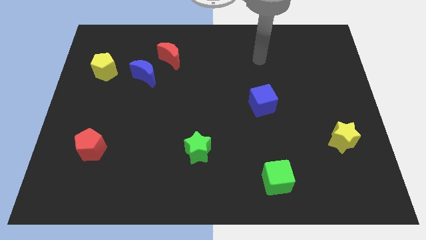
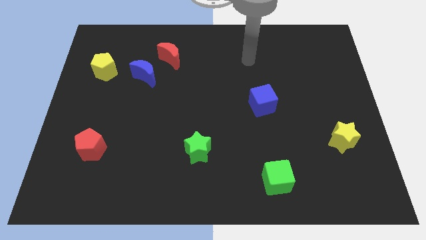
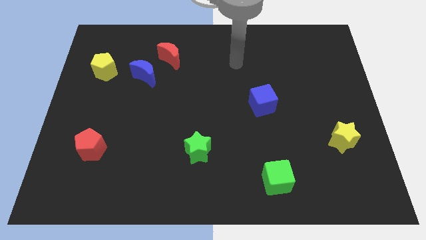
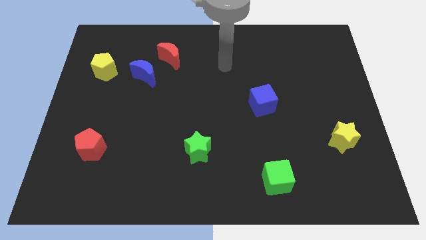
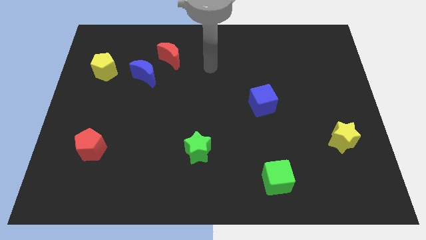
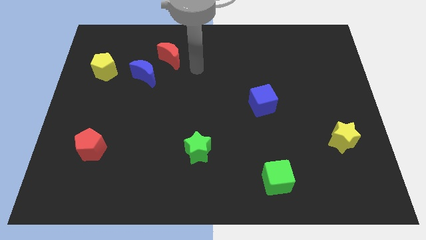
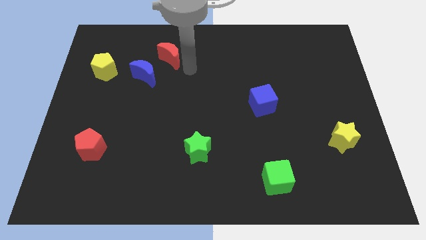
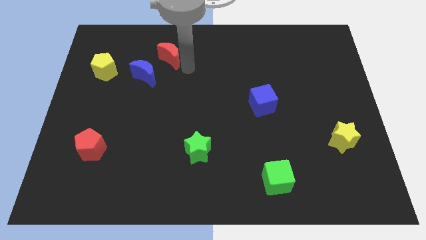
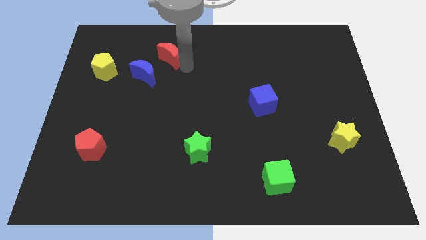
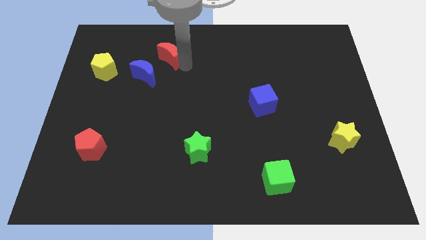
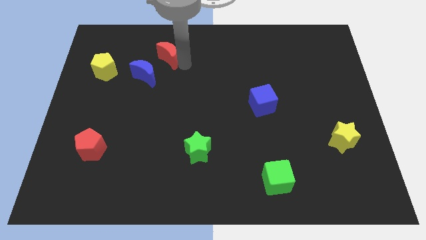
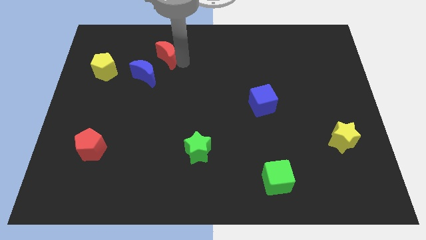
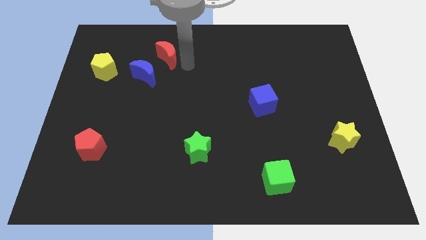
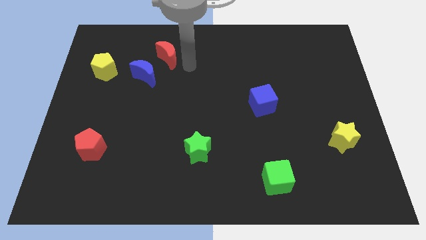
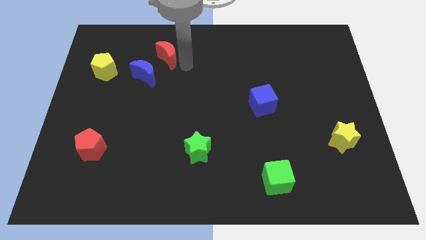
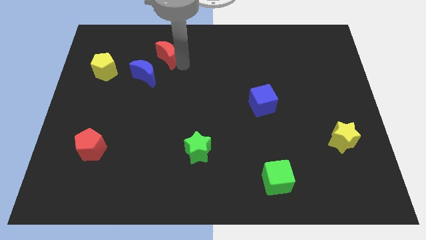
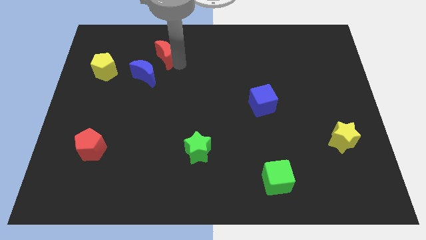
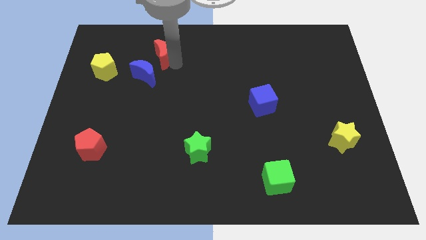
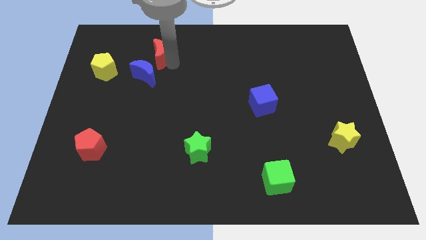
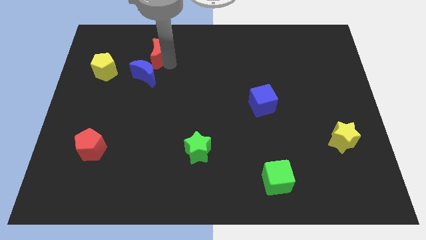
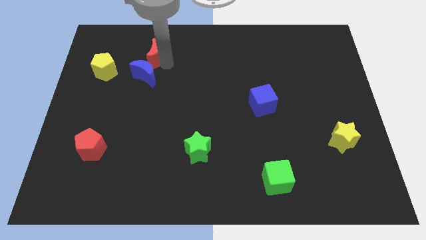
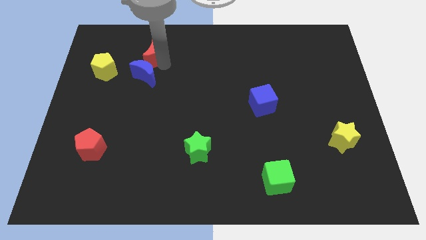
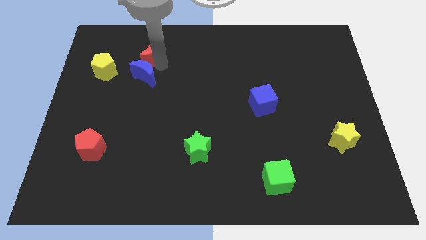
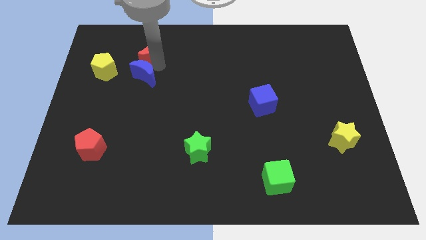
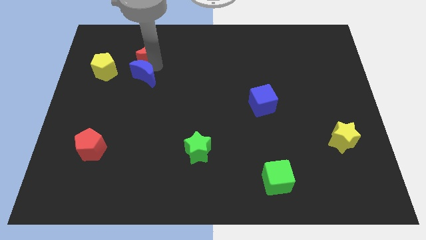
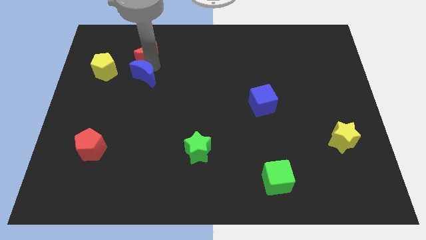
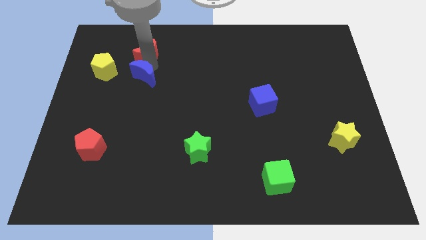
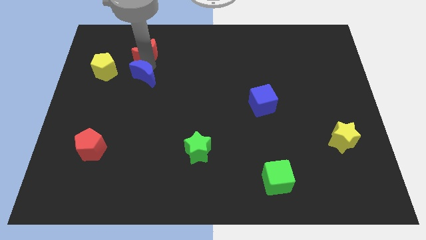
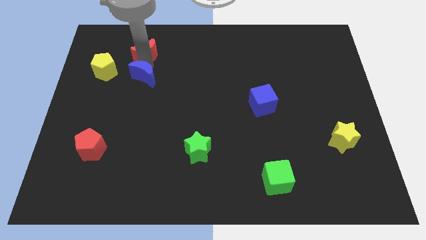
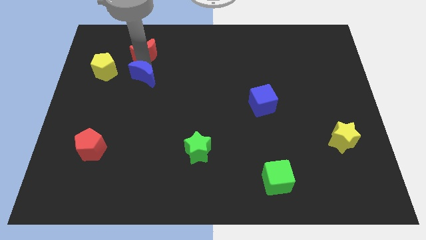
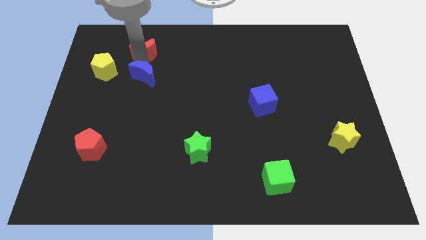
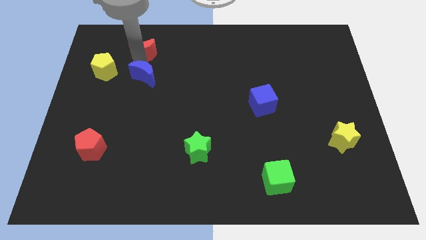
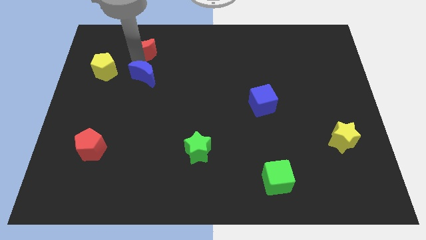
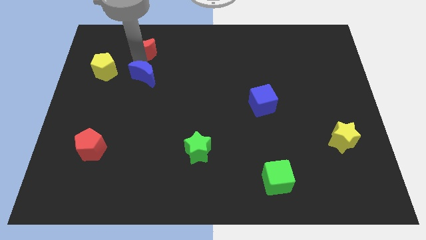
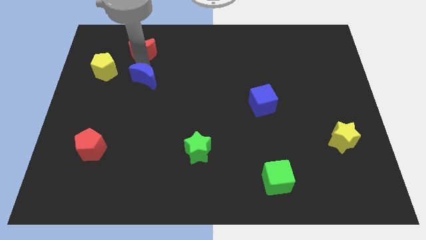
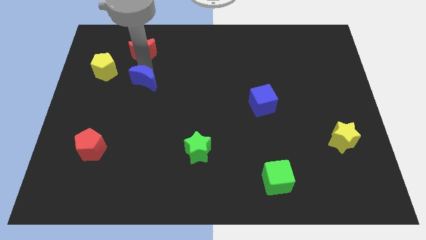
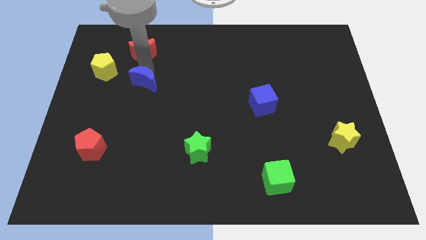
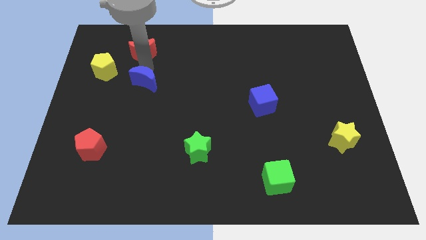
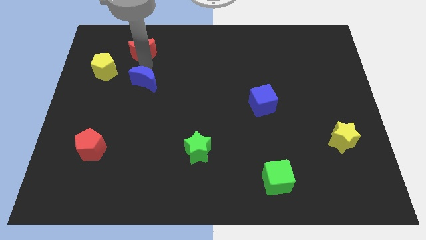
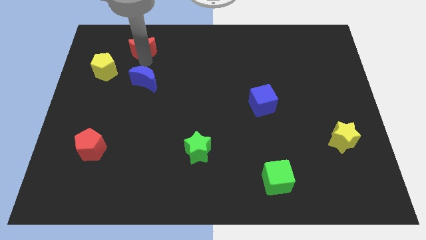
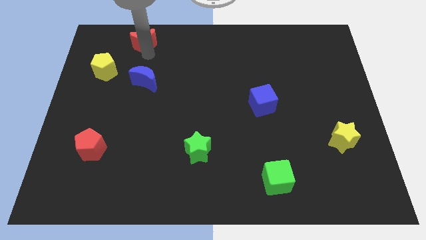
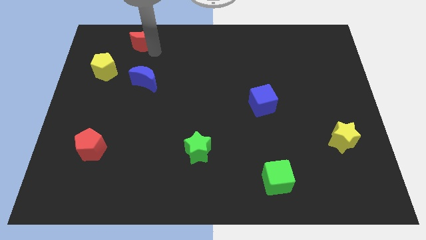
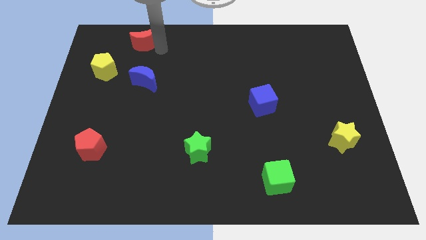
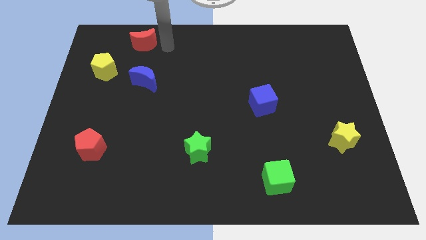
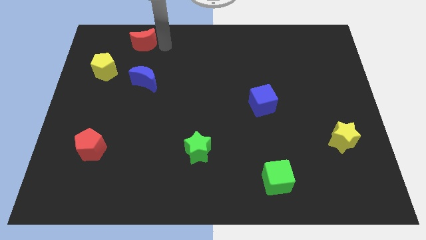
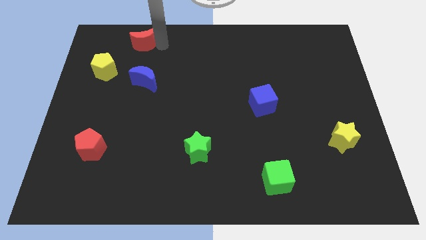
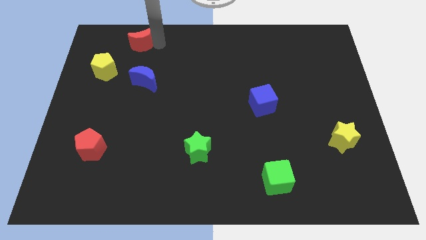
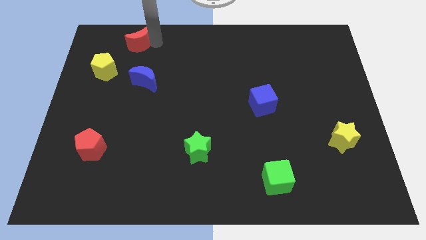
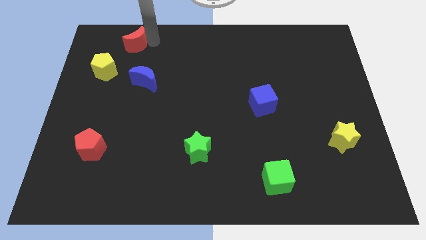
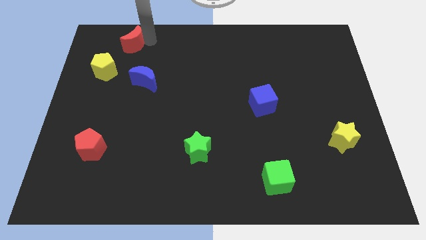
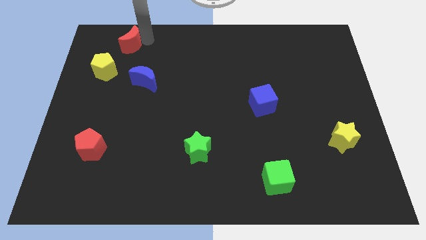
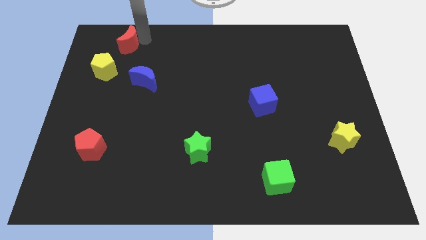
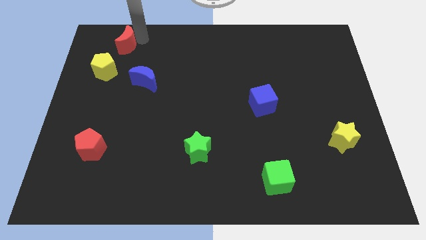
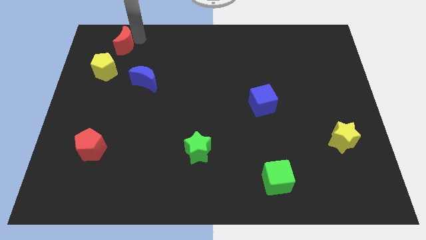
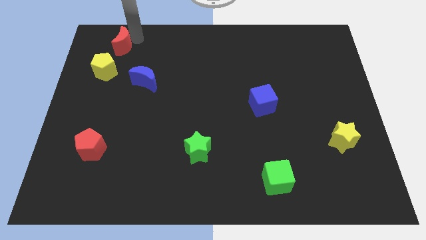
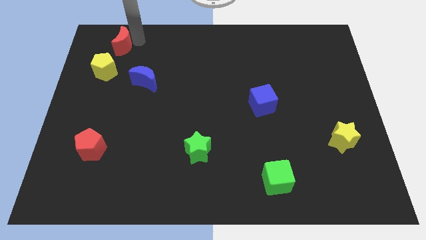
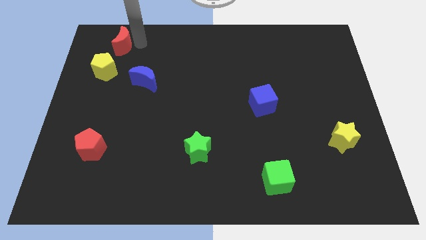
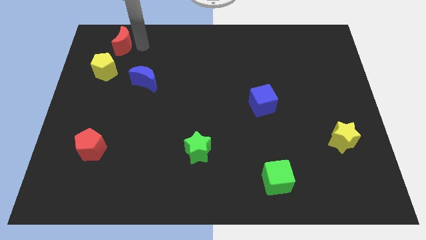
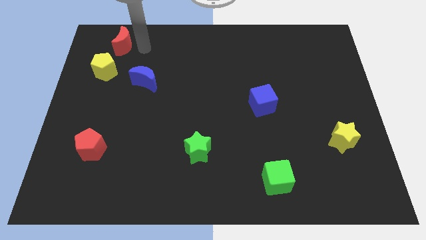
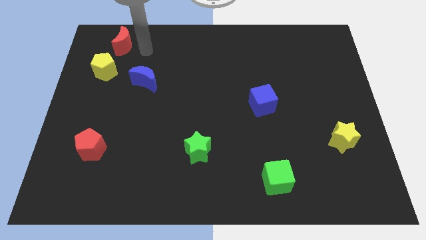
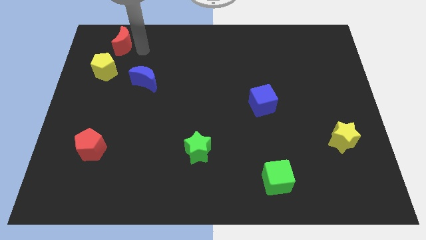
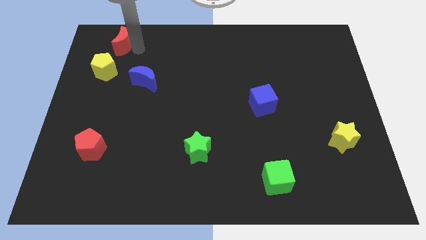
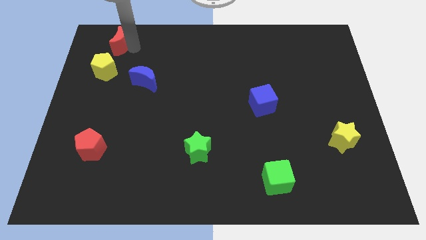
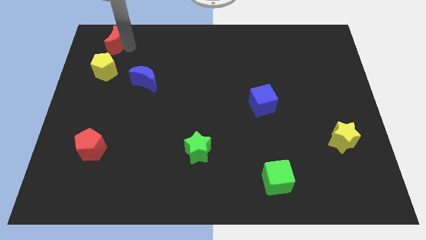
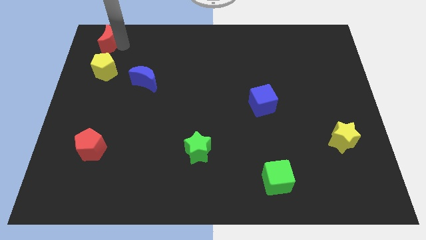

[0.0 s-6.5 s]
slide the red moon to the top left corner
